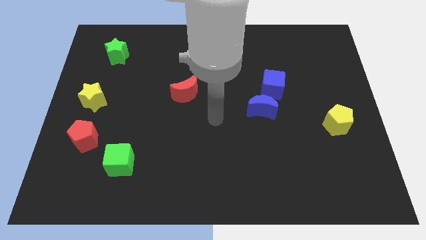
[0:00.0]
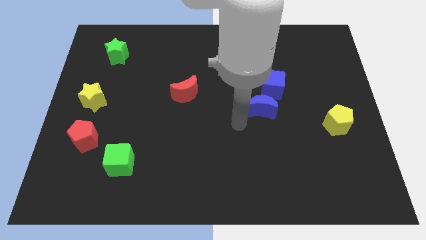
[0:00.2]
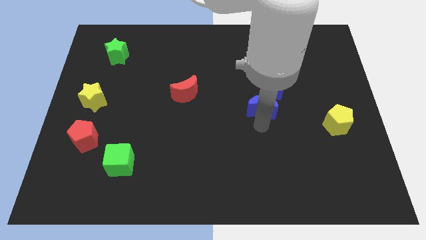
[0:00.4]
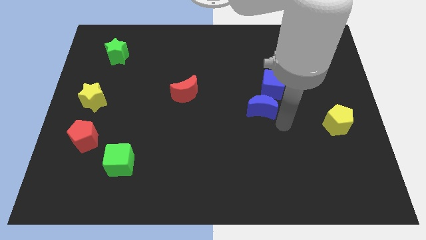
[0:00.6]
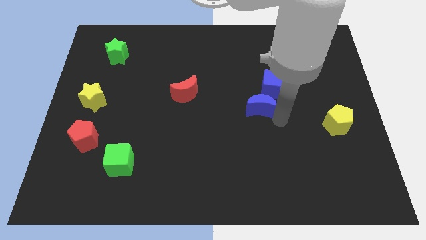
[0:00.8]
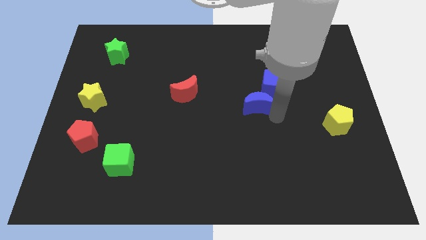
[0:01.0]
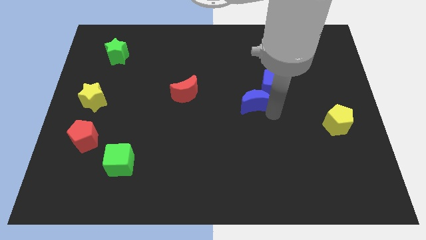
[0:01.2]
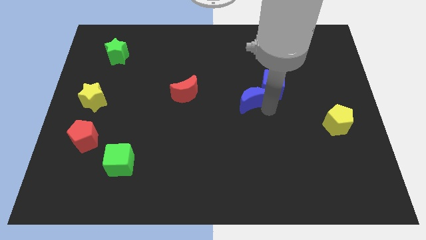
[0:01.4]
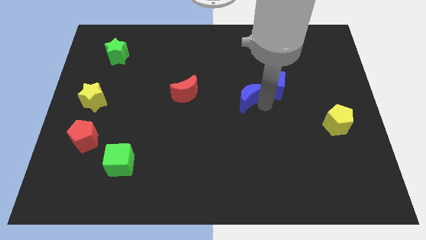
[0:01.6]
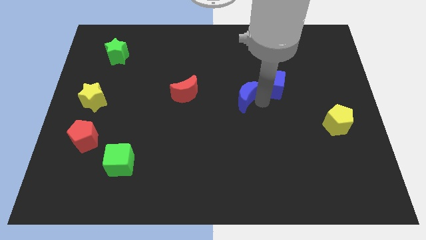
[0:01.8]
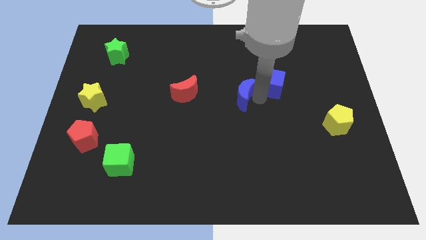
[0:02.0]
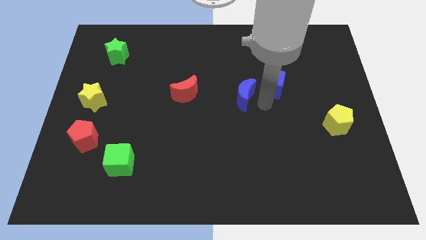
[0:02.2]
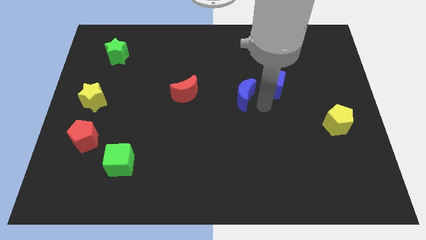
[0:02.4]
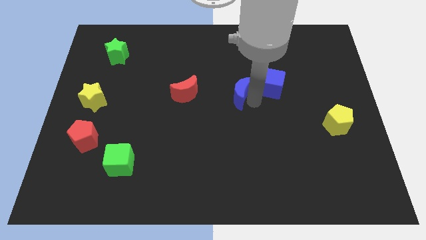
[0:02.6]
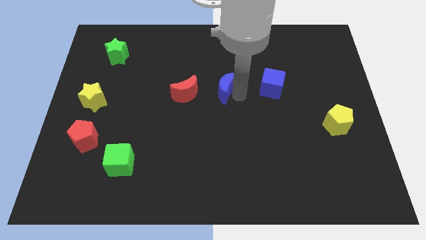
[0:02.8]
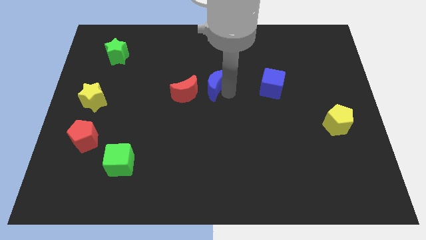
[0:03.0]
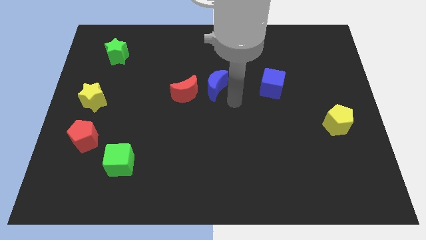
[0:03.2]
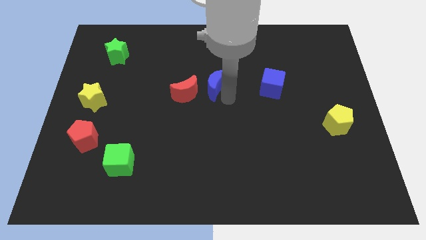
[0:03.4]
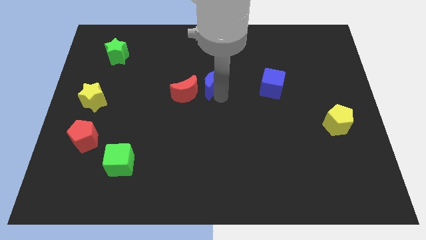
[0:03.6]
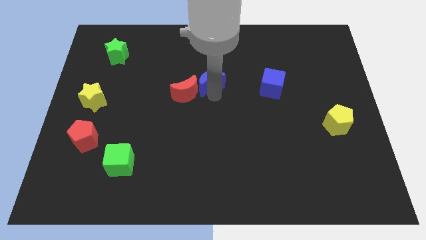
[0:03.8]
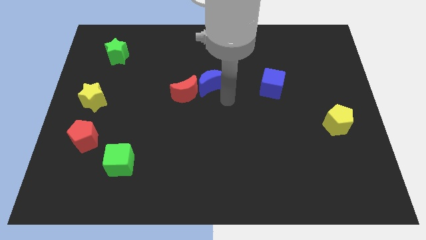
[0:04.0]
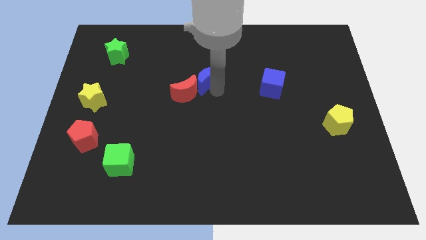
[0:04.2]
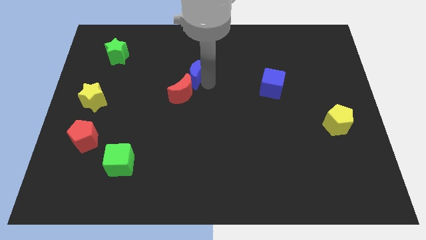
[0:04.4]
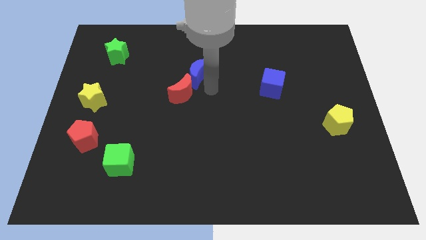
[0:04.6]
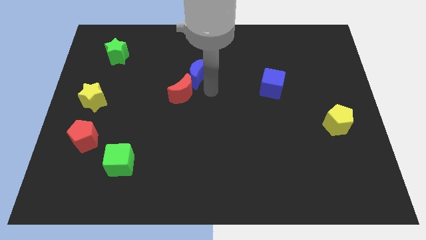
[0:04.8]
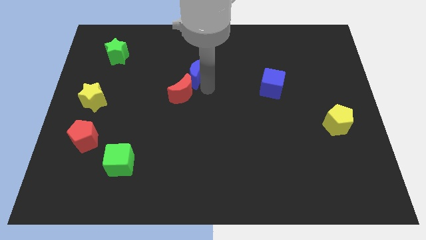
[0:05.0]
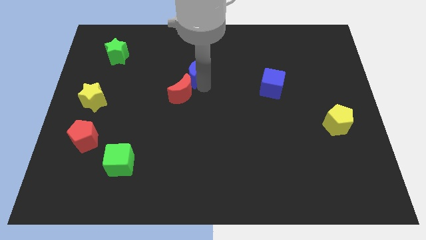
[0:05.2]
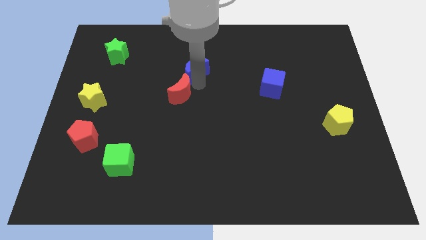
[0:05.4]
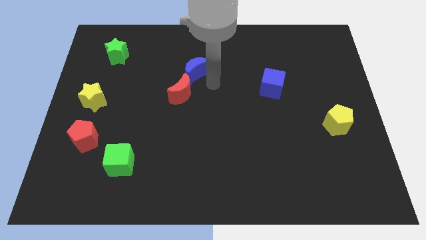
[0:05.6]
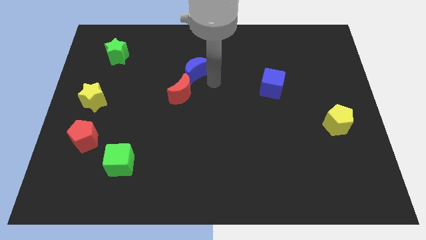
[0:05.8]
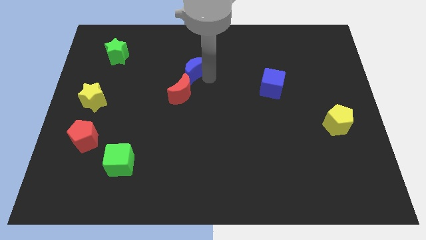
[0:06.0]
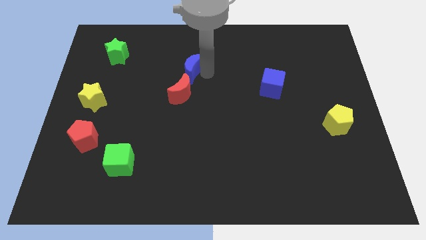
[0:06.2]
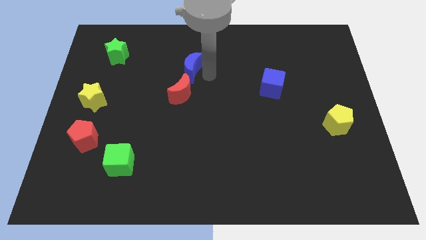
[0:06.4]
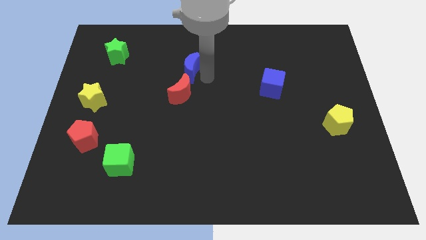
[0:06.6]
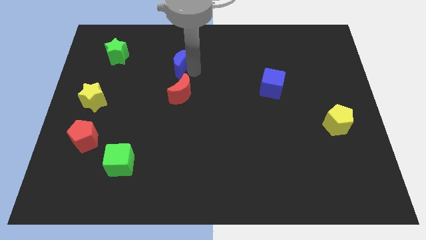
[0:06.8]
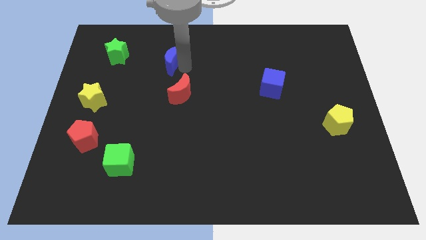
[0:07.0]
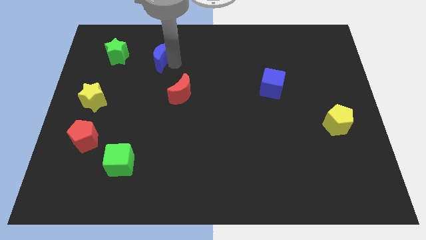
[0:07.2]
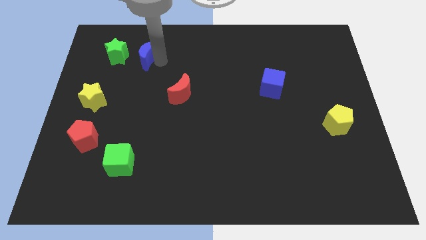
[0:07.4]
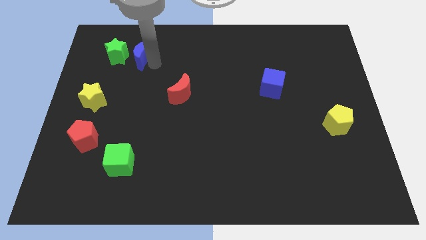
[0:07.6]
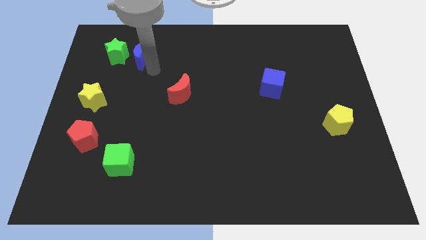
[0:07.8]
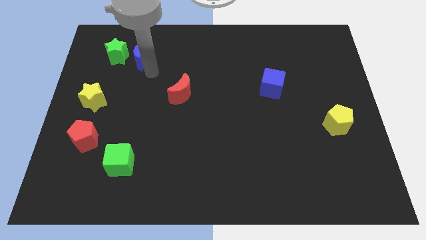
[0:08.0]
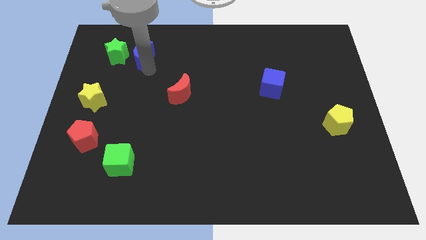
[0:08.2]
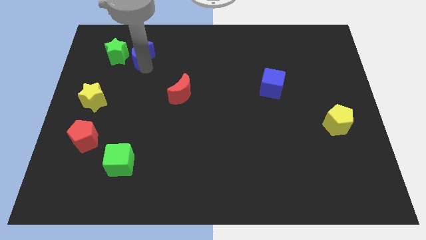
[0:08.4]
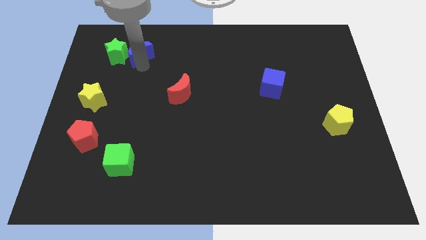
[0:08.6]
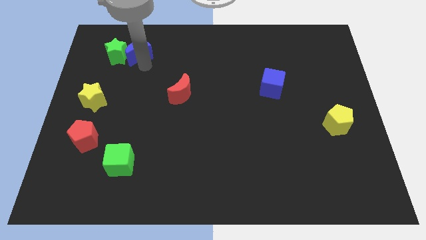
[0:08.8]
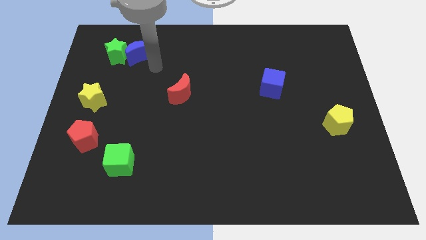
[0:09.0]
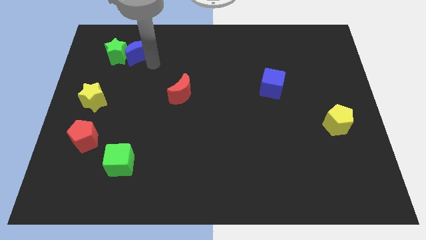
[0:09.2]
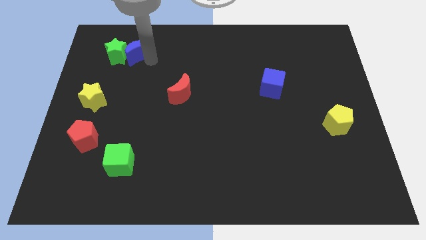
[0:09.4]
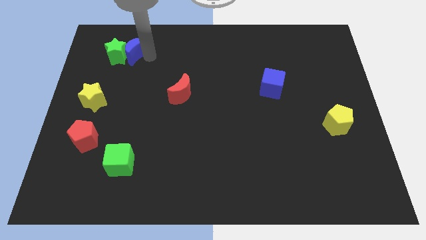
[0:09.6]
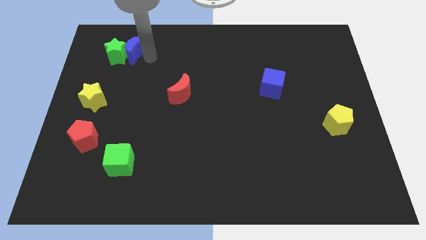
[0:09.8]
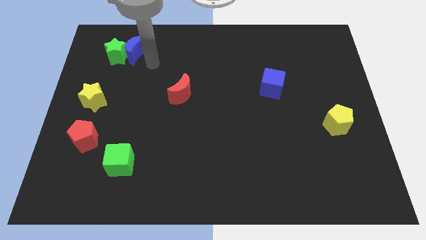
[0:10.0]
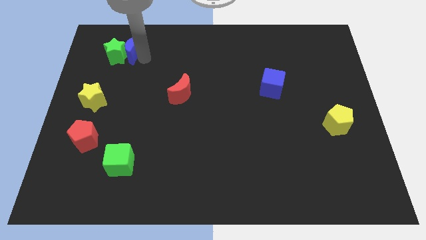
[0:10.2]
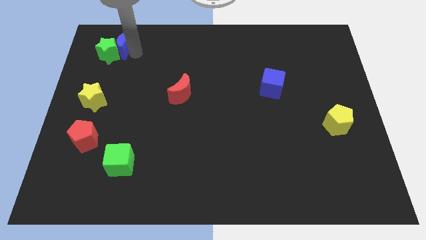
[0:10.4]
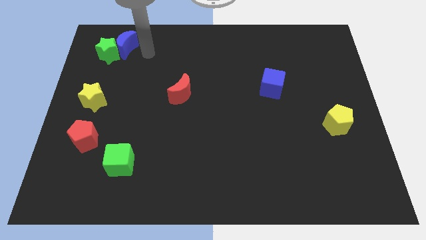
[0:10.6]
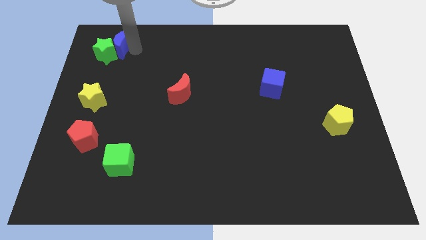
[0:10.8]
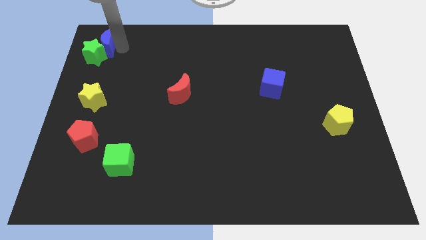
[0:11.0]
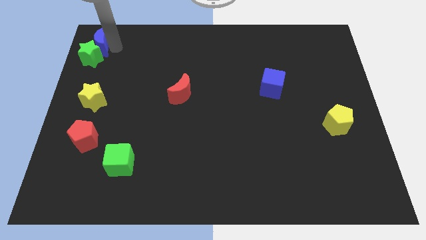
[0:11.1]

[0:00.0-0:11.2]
put the blue moon to the top left of the board

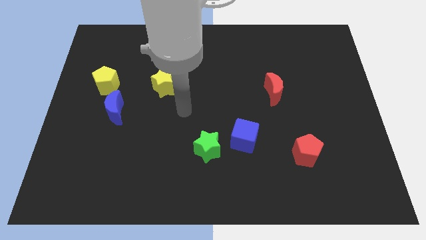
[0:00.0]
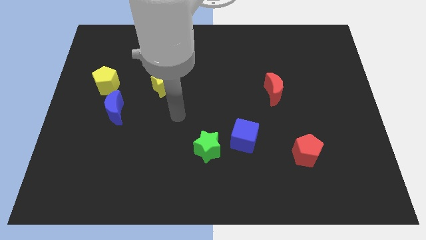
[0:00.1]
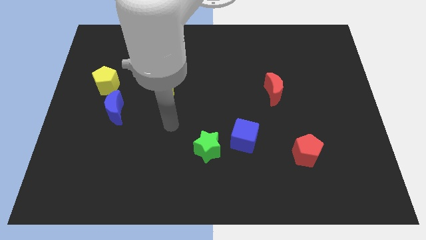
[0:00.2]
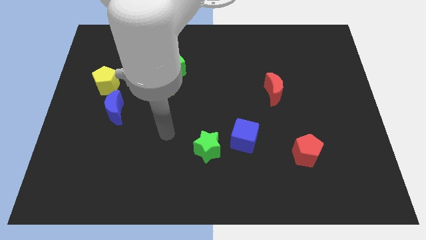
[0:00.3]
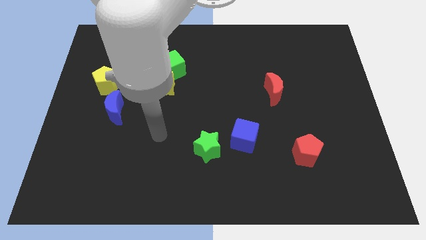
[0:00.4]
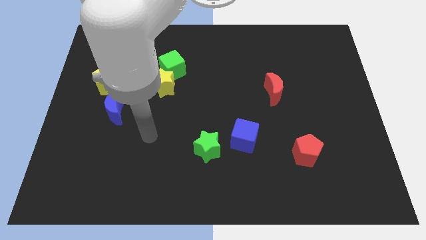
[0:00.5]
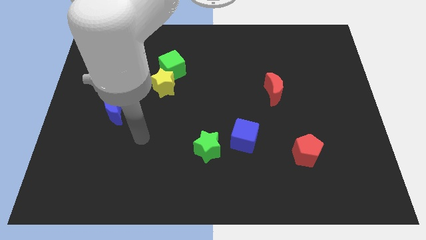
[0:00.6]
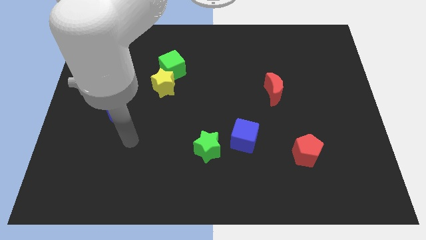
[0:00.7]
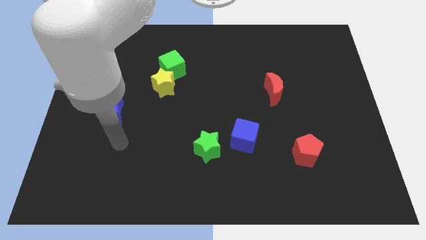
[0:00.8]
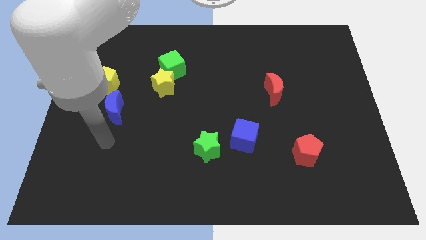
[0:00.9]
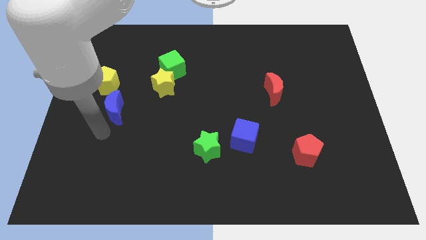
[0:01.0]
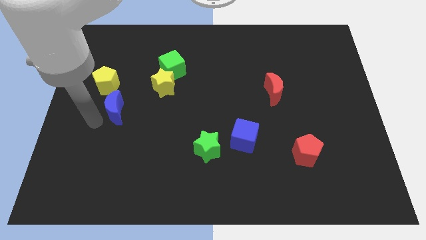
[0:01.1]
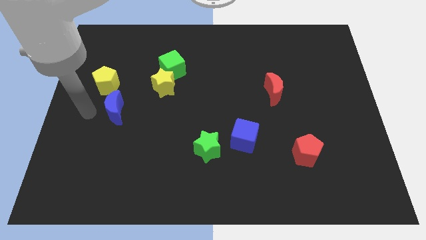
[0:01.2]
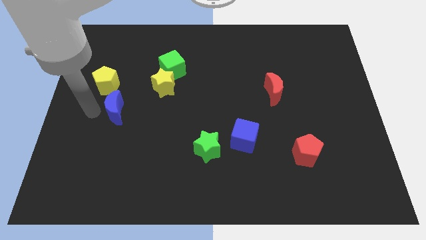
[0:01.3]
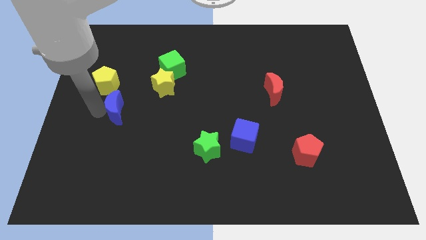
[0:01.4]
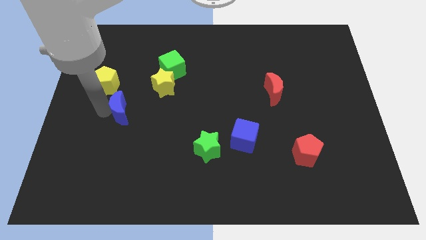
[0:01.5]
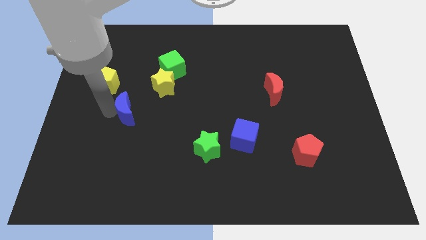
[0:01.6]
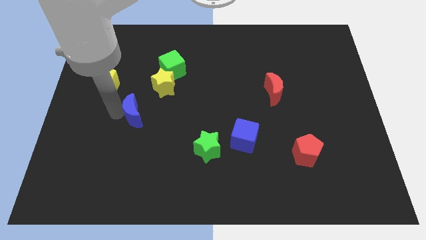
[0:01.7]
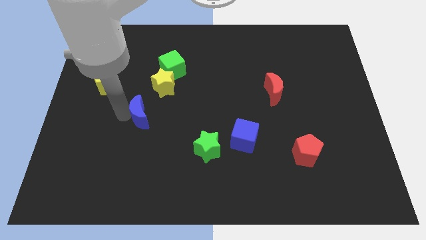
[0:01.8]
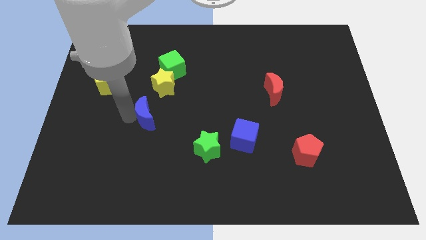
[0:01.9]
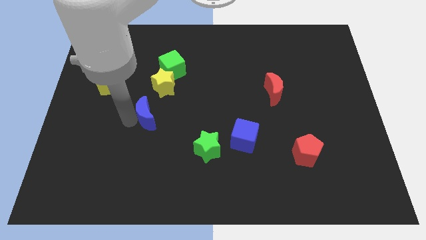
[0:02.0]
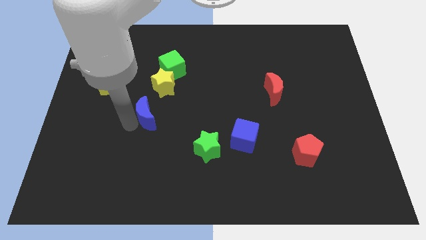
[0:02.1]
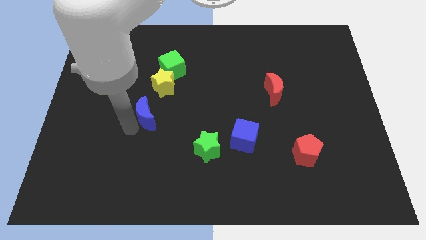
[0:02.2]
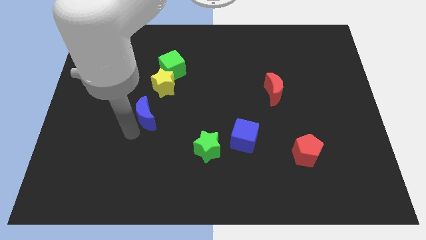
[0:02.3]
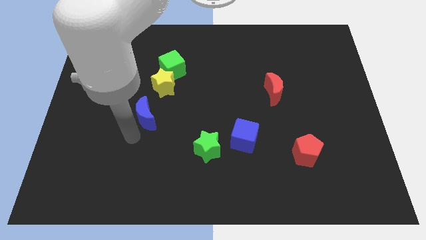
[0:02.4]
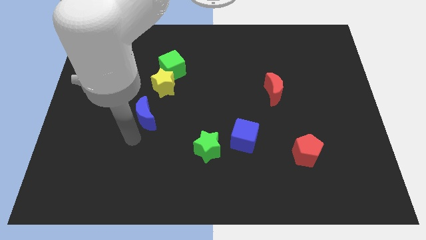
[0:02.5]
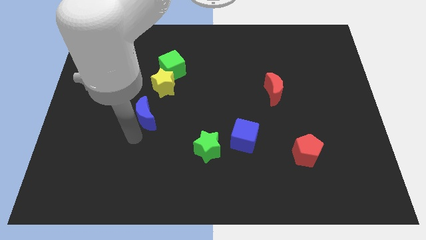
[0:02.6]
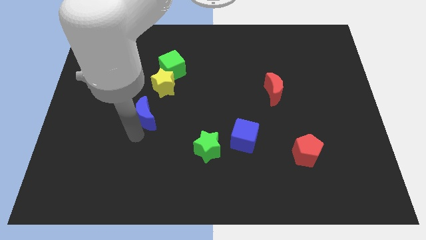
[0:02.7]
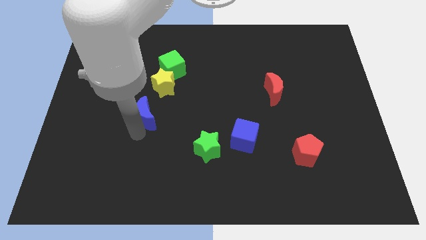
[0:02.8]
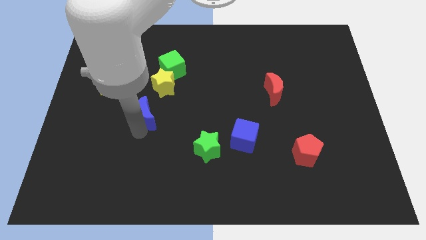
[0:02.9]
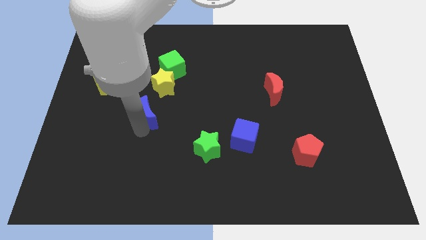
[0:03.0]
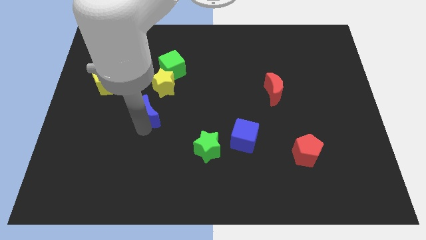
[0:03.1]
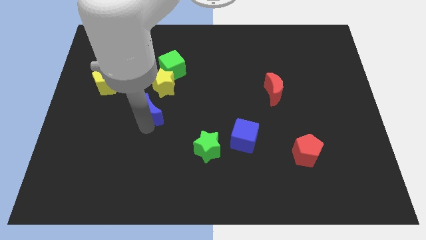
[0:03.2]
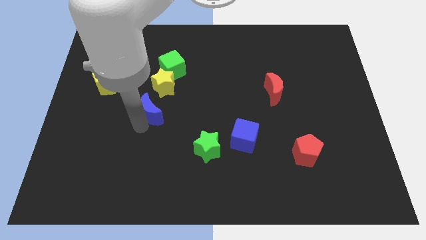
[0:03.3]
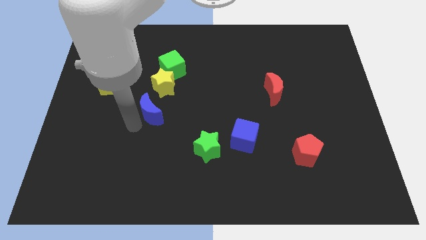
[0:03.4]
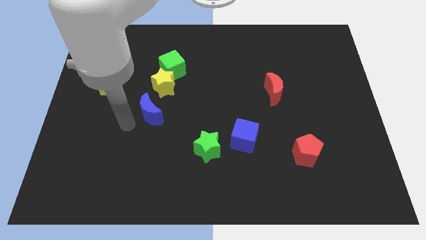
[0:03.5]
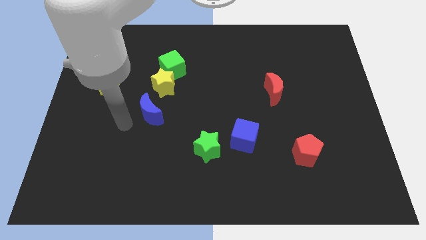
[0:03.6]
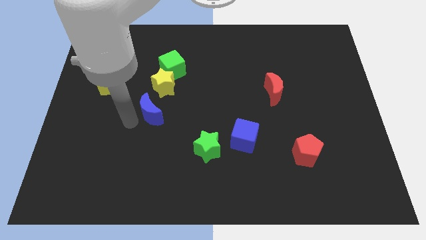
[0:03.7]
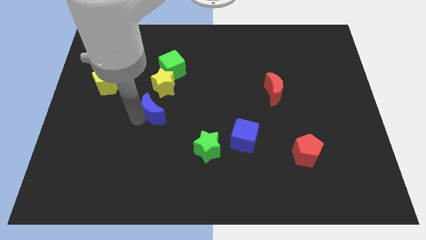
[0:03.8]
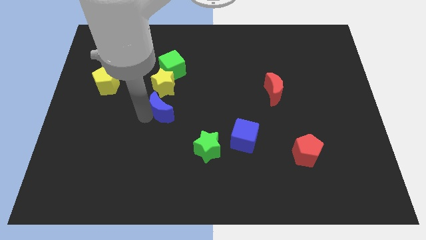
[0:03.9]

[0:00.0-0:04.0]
move the blue moon to the center
